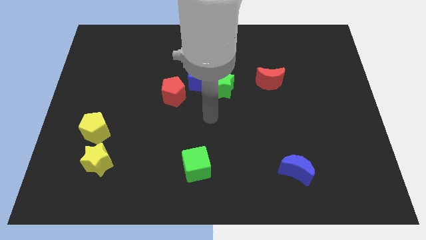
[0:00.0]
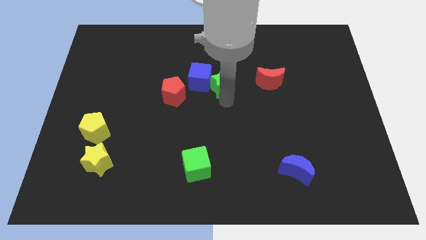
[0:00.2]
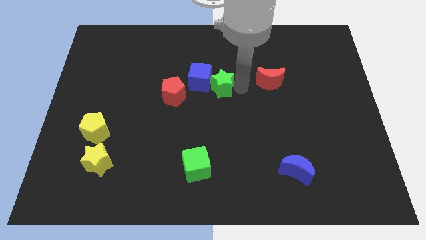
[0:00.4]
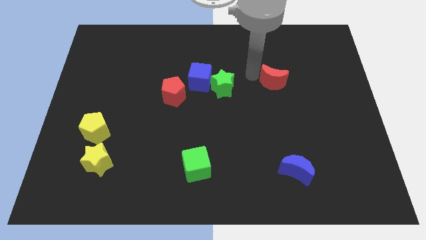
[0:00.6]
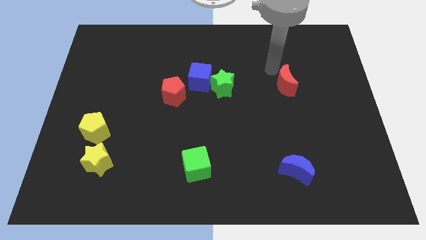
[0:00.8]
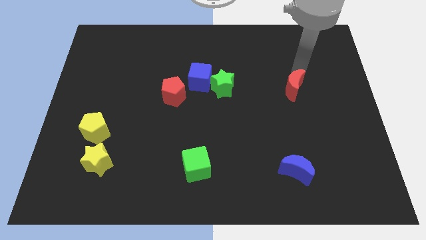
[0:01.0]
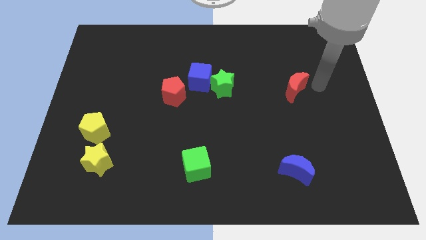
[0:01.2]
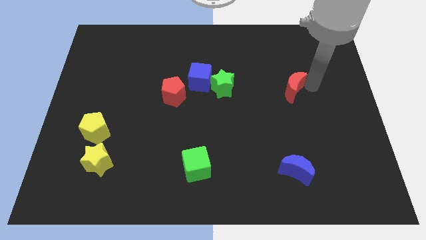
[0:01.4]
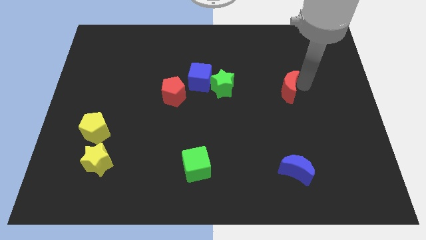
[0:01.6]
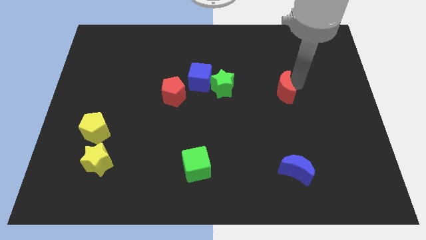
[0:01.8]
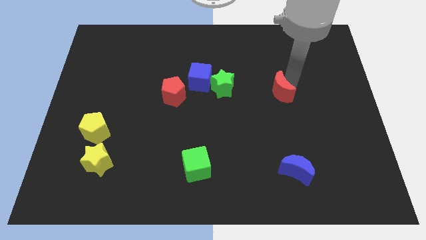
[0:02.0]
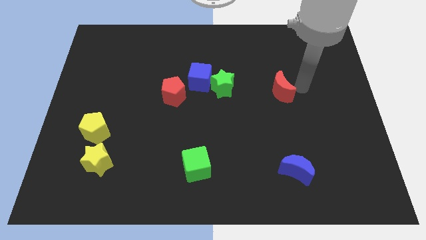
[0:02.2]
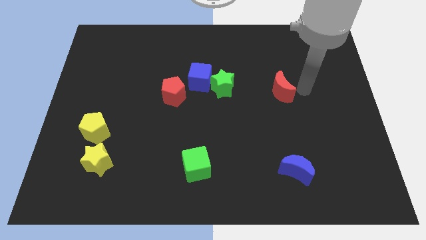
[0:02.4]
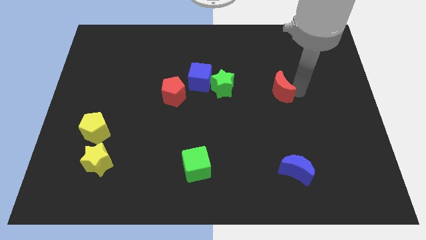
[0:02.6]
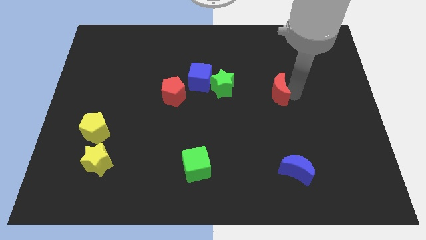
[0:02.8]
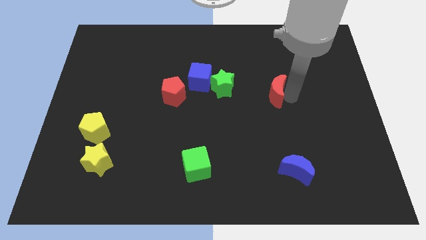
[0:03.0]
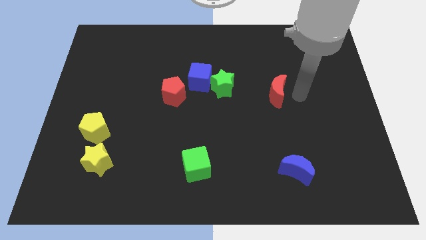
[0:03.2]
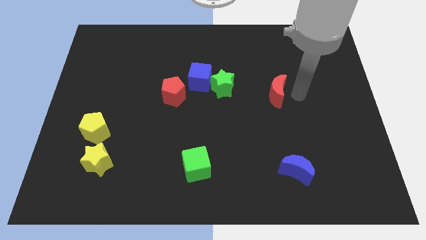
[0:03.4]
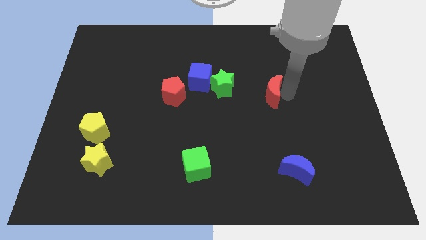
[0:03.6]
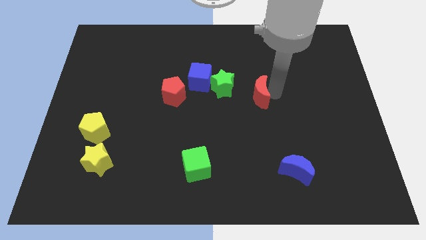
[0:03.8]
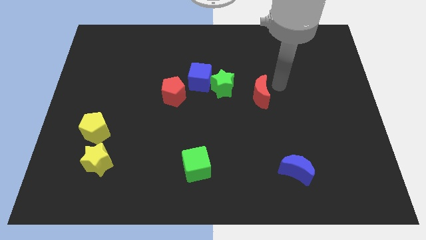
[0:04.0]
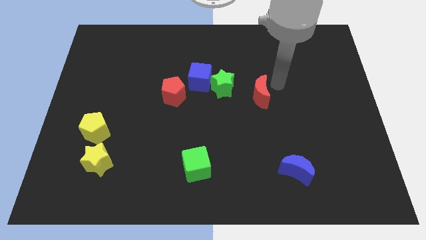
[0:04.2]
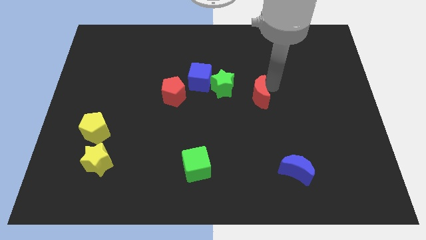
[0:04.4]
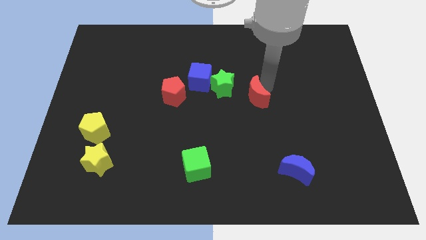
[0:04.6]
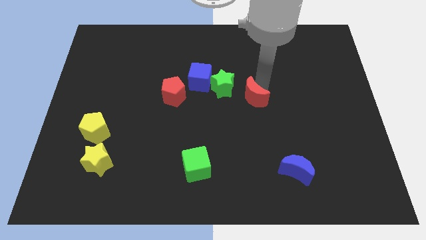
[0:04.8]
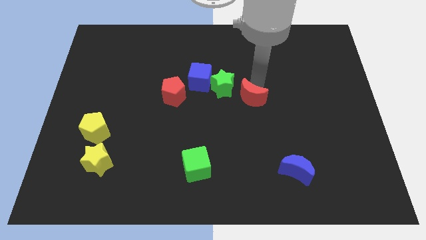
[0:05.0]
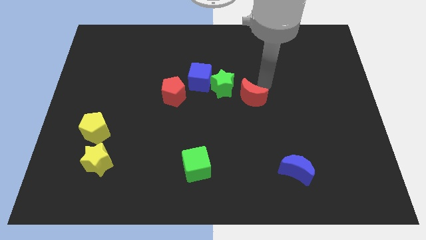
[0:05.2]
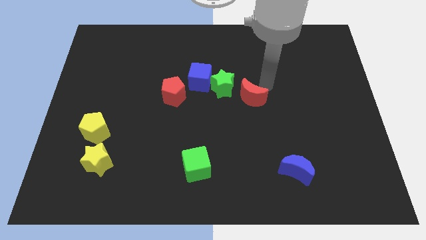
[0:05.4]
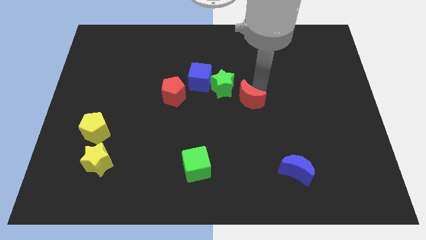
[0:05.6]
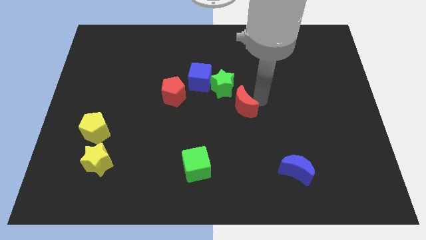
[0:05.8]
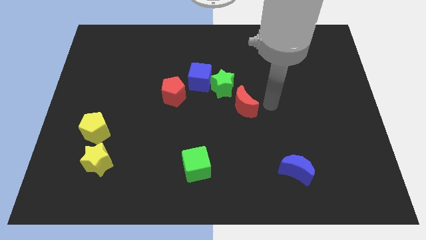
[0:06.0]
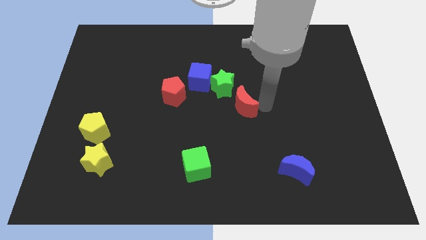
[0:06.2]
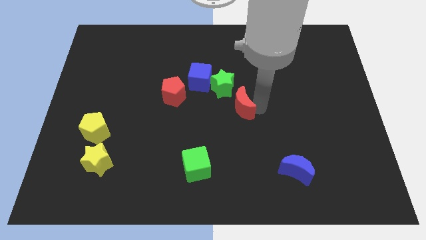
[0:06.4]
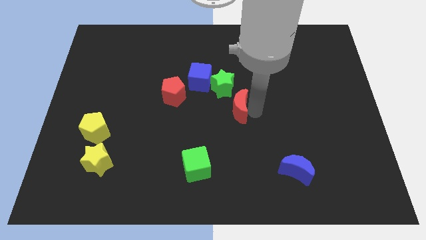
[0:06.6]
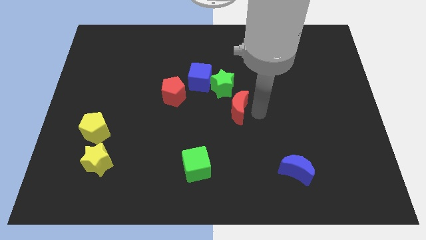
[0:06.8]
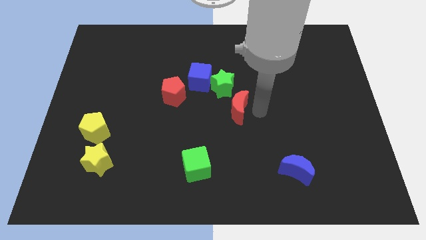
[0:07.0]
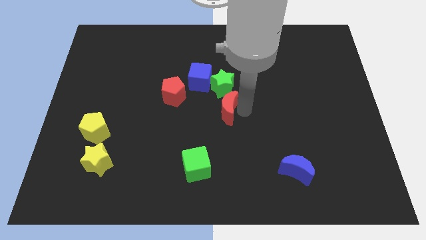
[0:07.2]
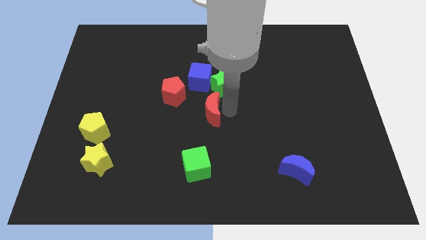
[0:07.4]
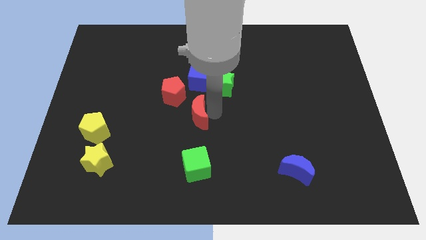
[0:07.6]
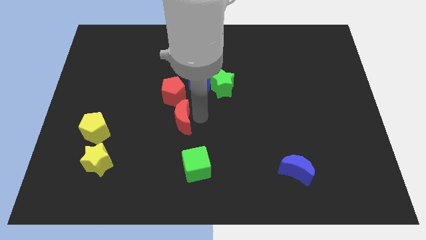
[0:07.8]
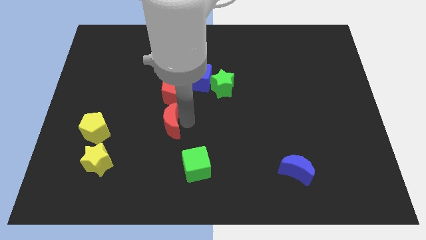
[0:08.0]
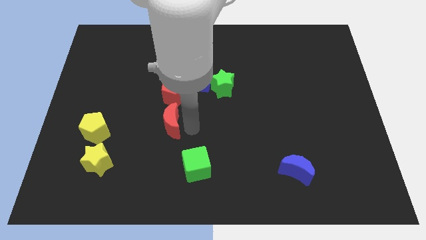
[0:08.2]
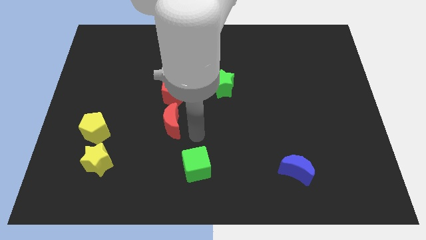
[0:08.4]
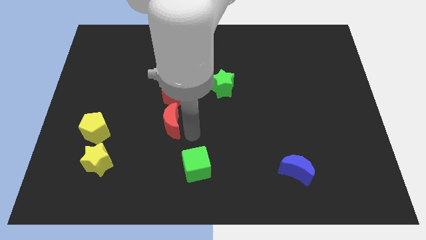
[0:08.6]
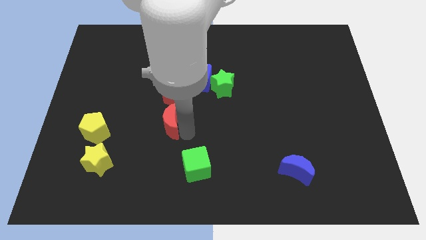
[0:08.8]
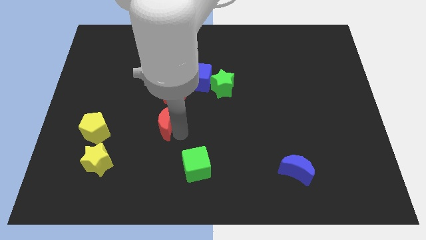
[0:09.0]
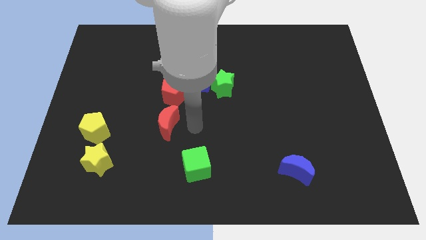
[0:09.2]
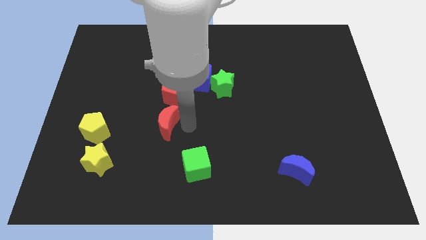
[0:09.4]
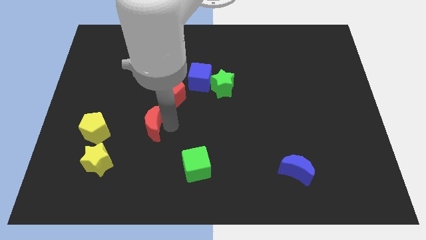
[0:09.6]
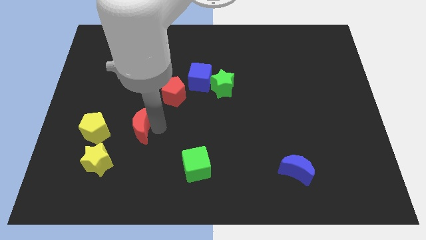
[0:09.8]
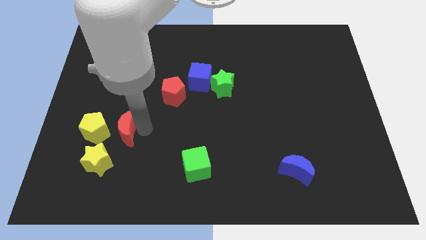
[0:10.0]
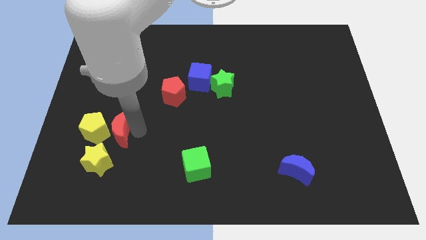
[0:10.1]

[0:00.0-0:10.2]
move the red moon next to the yellow pentagon

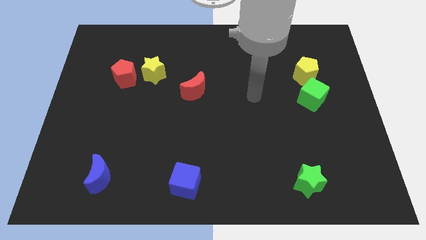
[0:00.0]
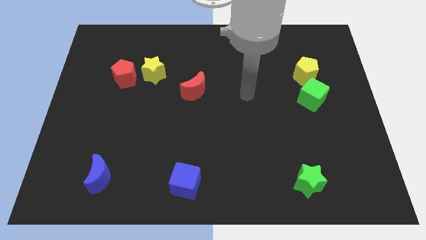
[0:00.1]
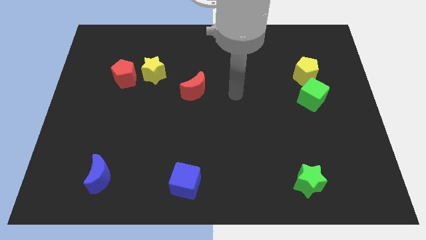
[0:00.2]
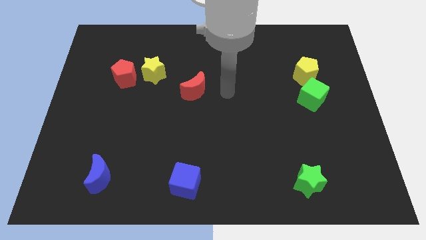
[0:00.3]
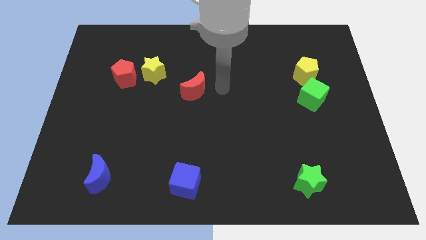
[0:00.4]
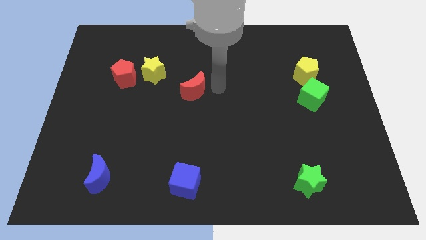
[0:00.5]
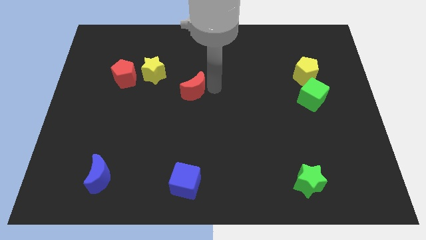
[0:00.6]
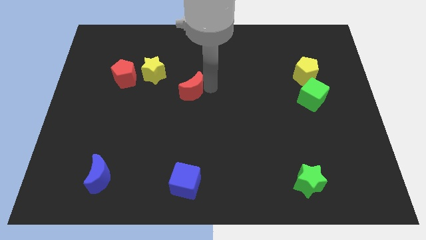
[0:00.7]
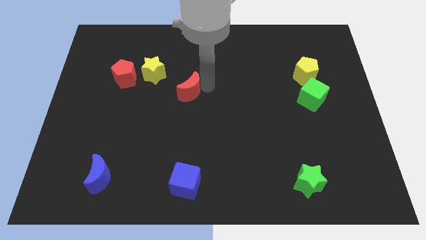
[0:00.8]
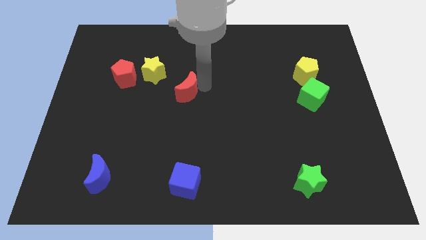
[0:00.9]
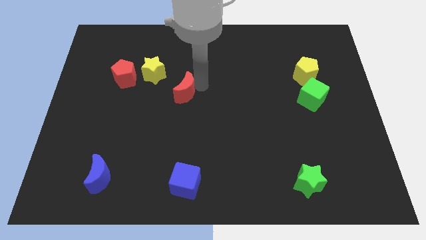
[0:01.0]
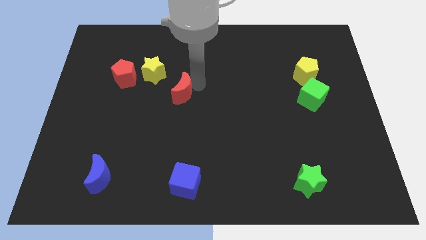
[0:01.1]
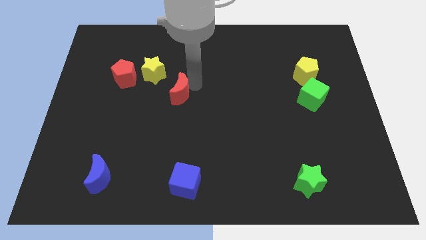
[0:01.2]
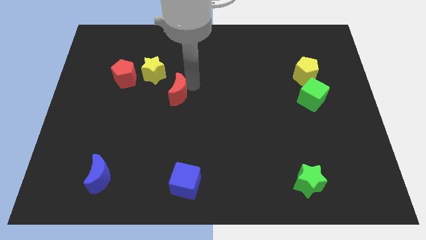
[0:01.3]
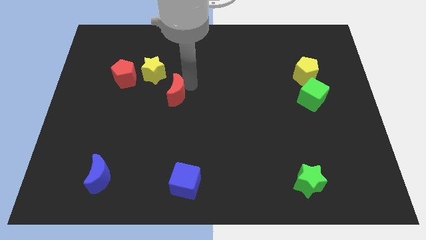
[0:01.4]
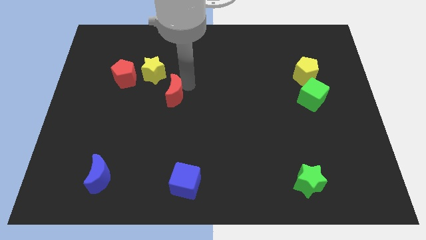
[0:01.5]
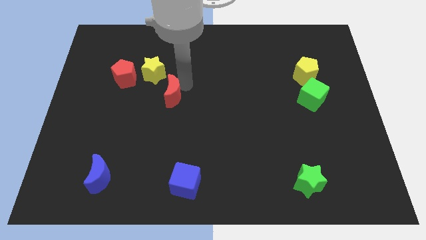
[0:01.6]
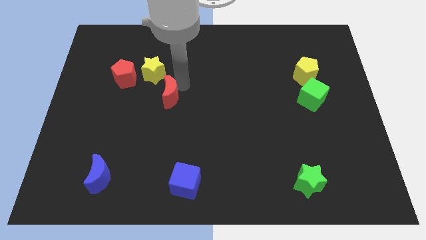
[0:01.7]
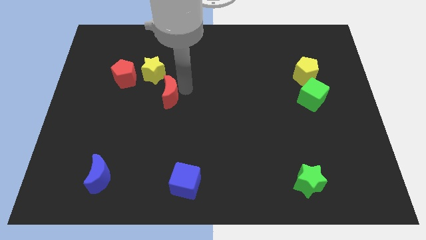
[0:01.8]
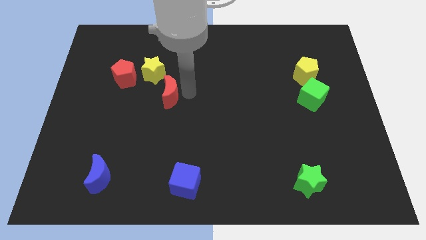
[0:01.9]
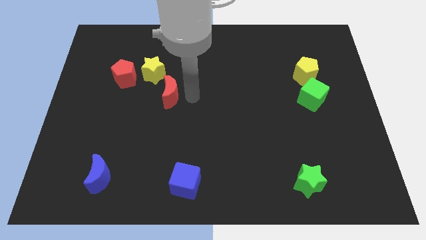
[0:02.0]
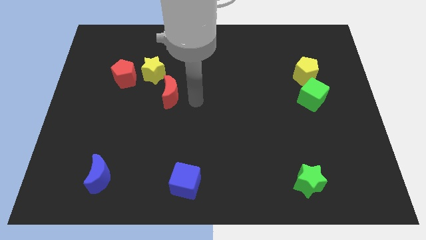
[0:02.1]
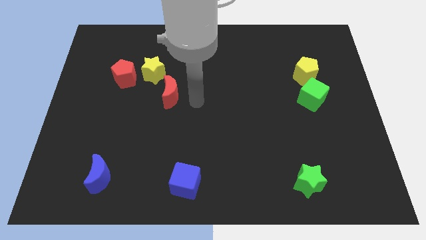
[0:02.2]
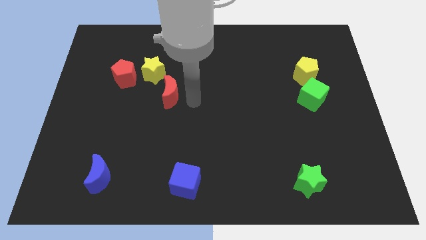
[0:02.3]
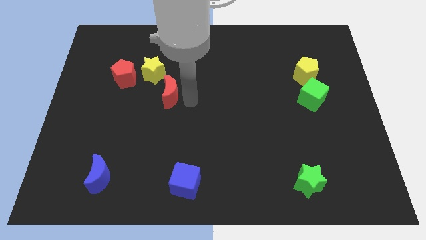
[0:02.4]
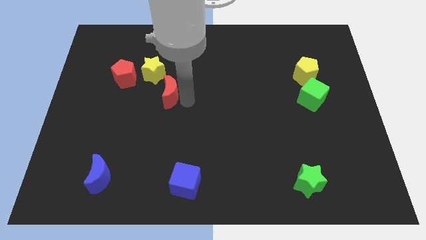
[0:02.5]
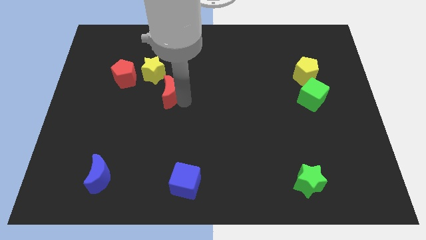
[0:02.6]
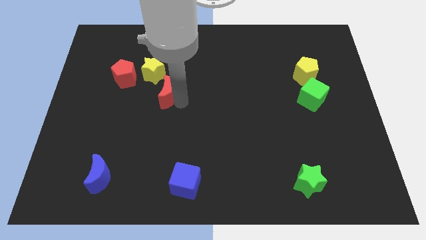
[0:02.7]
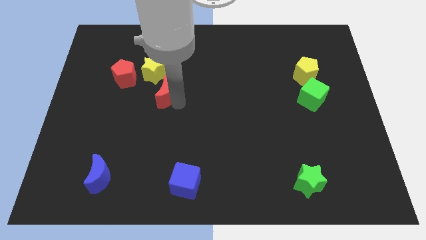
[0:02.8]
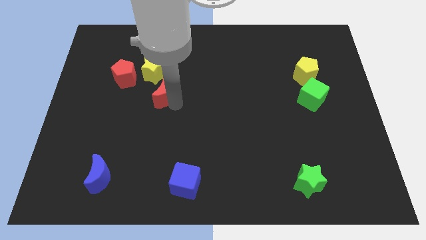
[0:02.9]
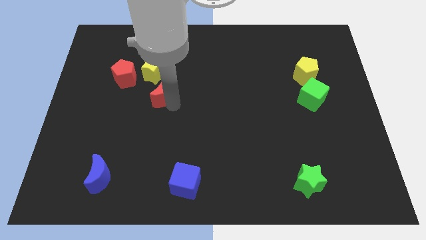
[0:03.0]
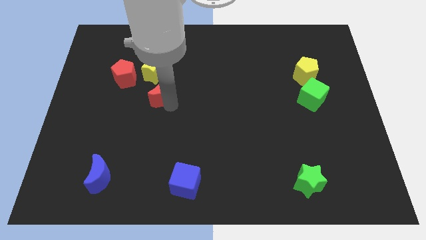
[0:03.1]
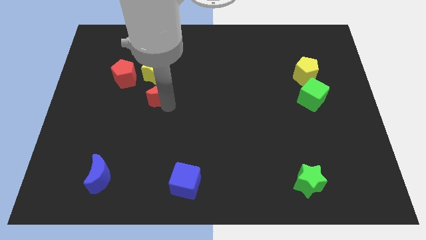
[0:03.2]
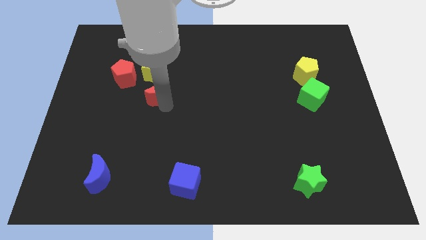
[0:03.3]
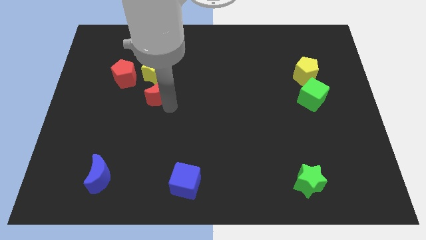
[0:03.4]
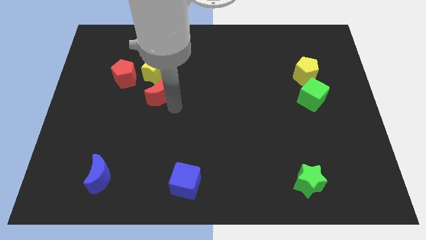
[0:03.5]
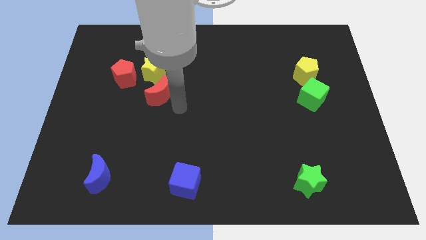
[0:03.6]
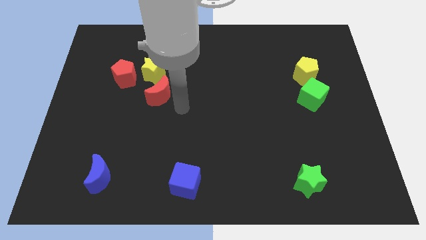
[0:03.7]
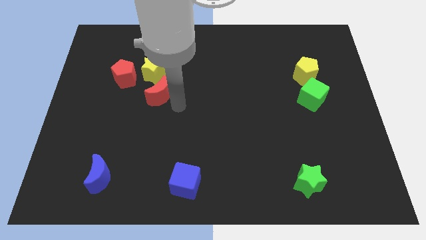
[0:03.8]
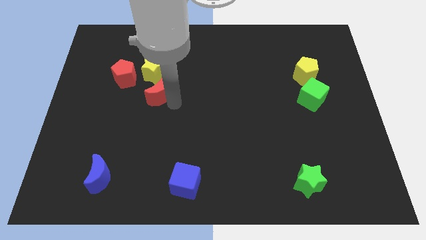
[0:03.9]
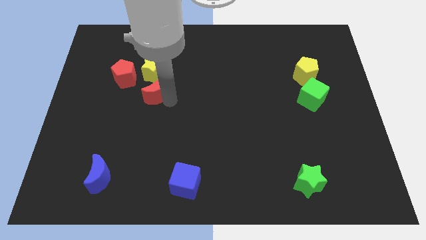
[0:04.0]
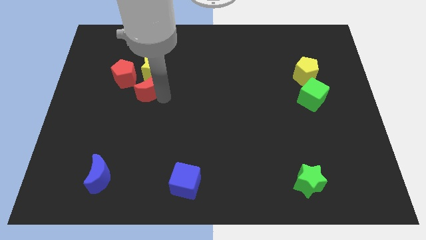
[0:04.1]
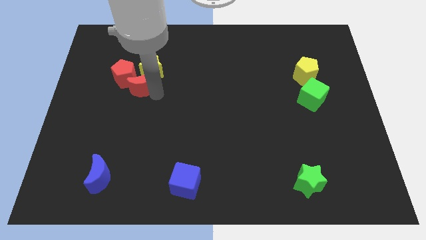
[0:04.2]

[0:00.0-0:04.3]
put the red moon towards the red pentagon
